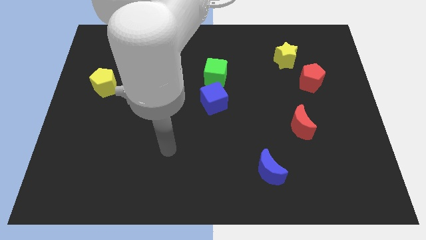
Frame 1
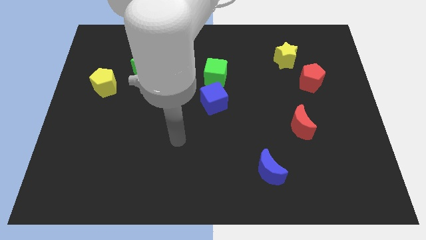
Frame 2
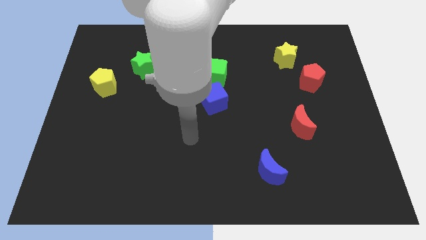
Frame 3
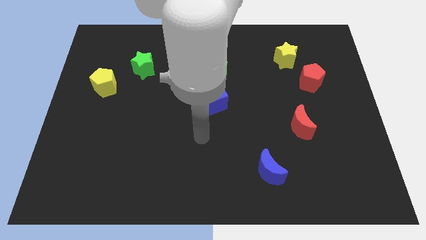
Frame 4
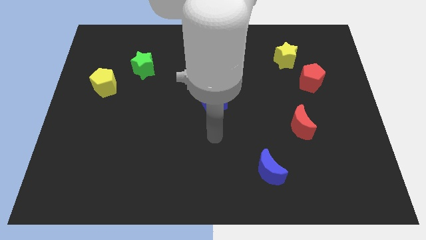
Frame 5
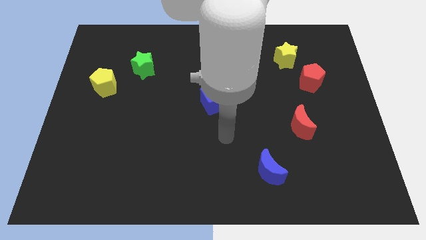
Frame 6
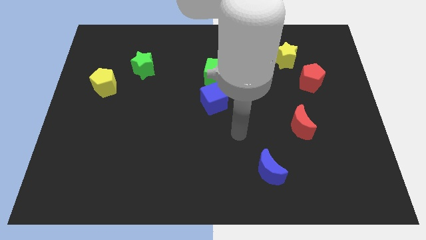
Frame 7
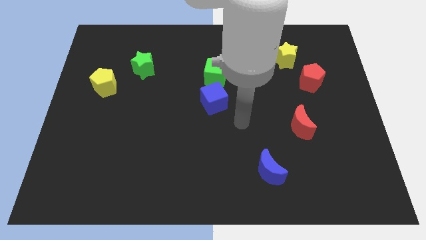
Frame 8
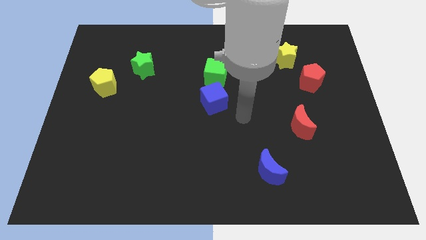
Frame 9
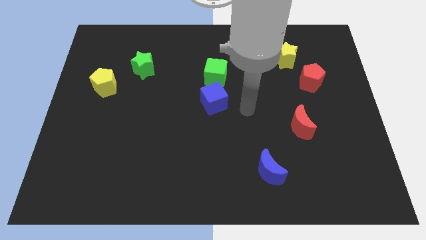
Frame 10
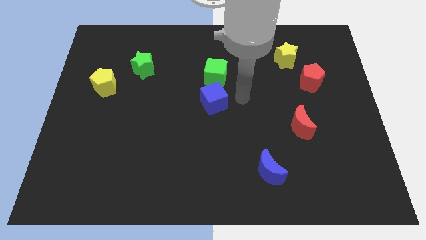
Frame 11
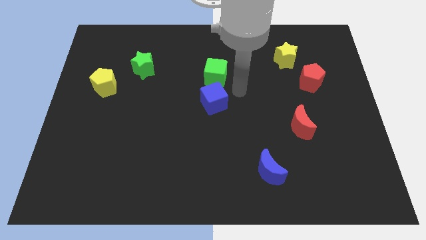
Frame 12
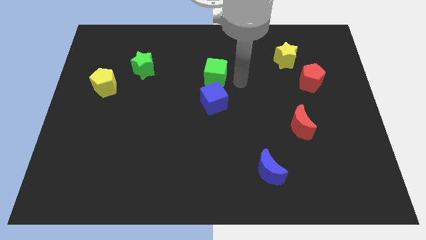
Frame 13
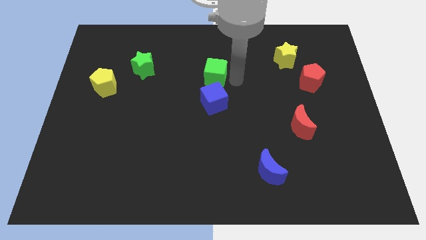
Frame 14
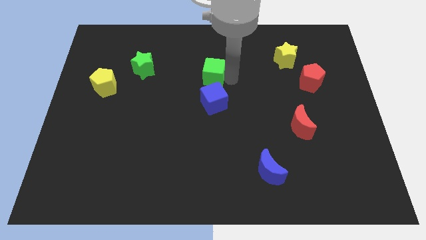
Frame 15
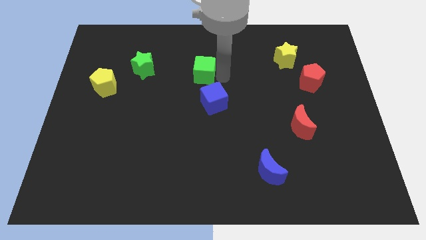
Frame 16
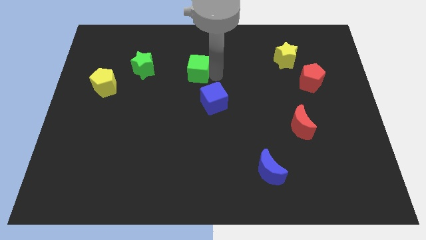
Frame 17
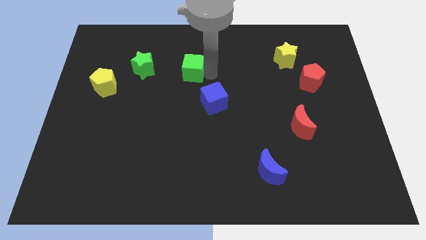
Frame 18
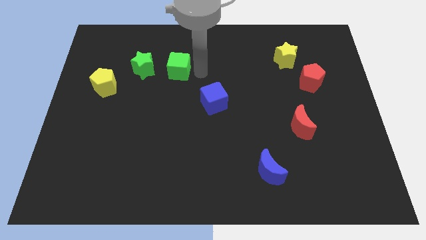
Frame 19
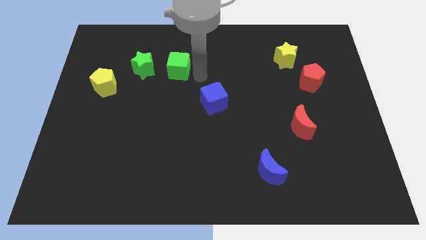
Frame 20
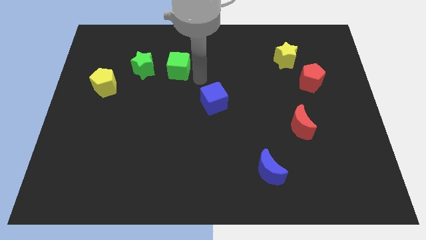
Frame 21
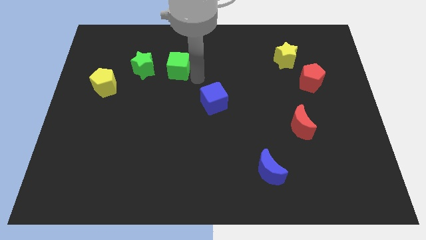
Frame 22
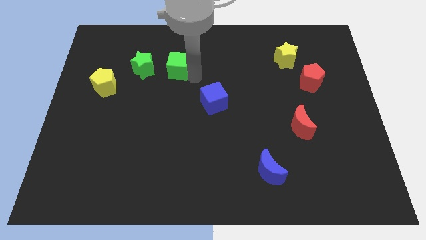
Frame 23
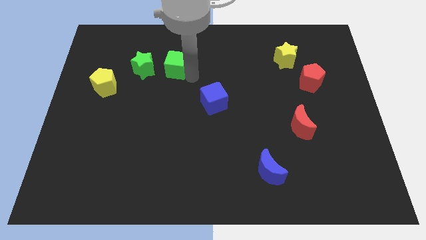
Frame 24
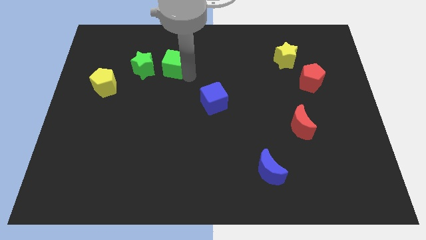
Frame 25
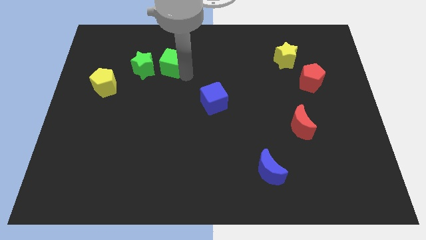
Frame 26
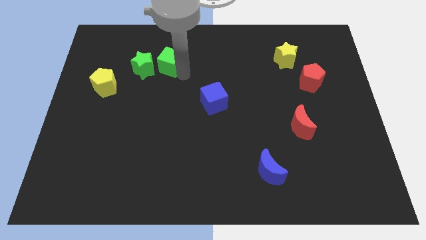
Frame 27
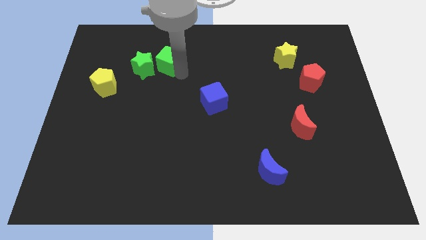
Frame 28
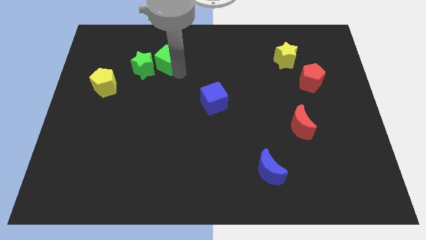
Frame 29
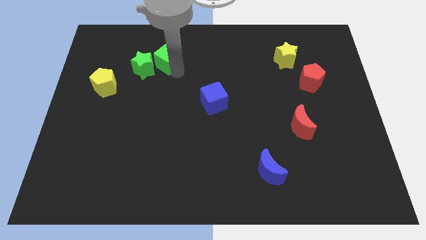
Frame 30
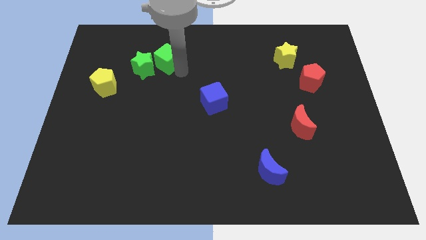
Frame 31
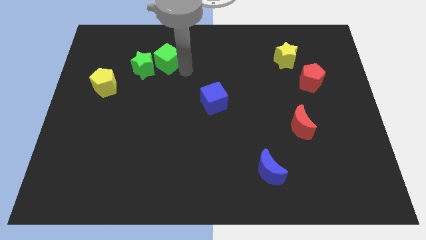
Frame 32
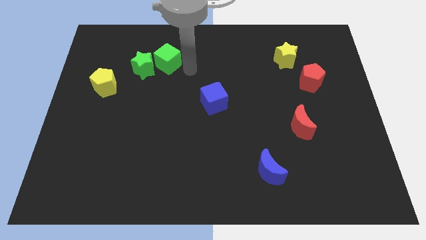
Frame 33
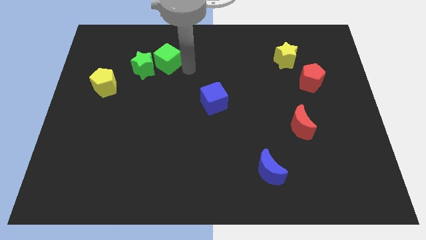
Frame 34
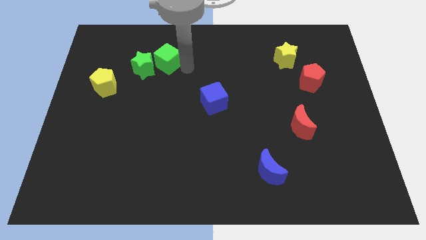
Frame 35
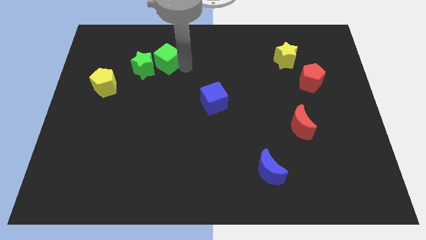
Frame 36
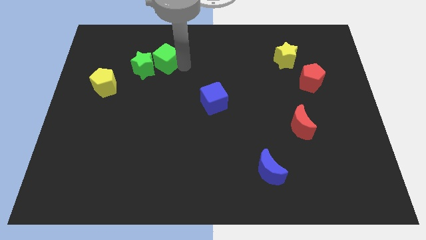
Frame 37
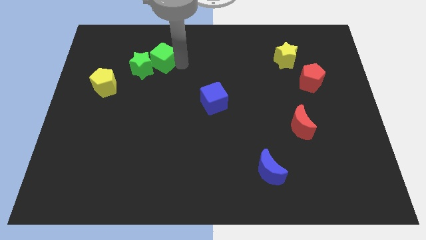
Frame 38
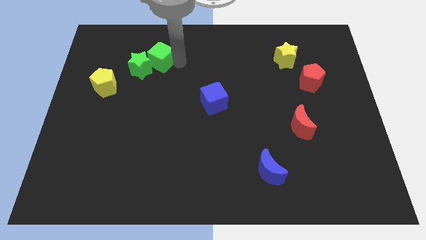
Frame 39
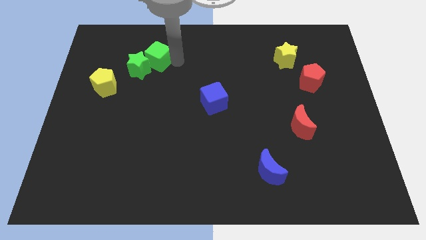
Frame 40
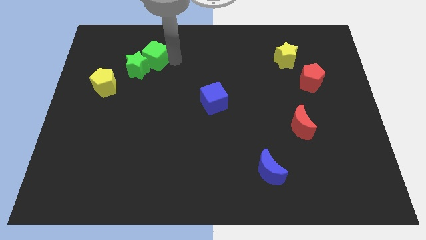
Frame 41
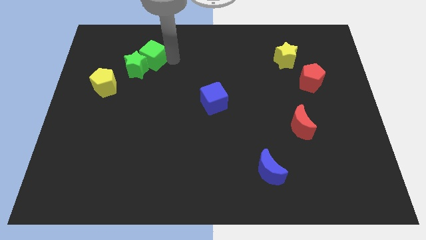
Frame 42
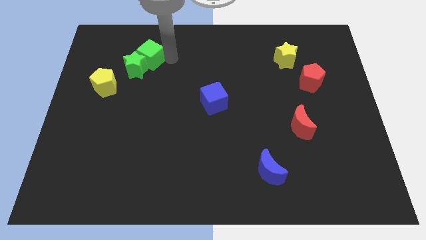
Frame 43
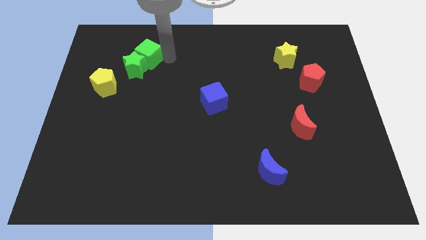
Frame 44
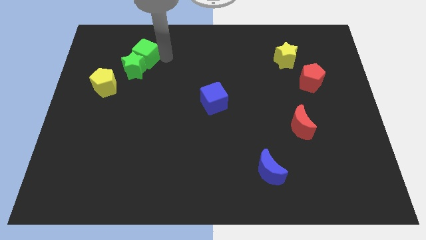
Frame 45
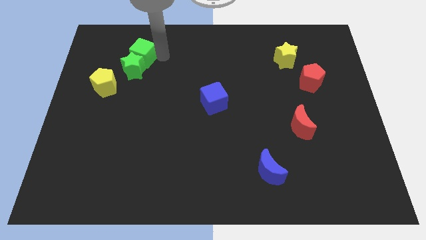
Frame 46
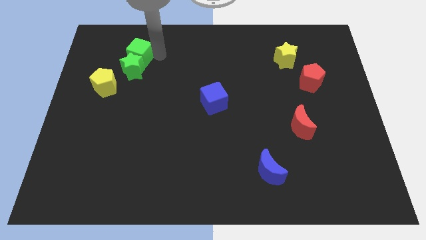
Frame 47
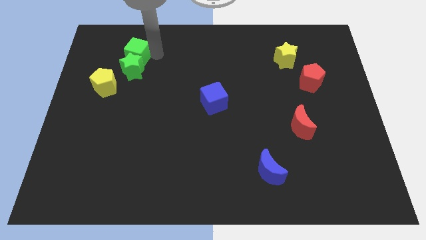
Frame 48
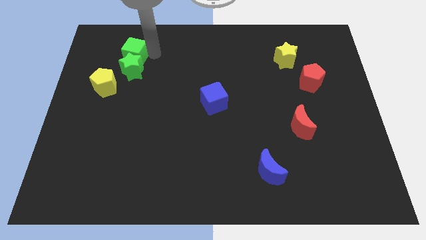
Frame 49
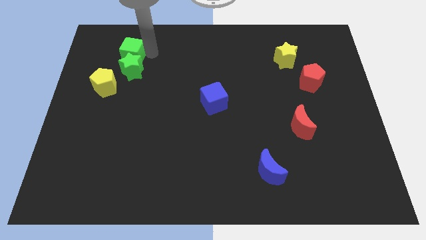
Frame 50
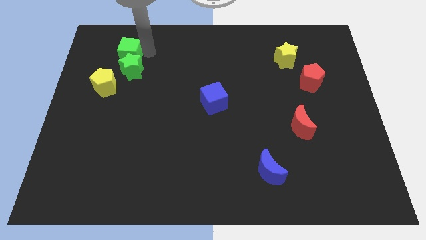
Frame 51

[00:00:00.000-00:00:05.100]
put the green cube to the top side of the yellow pentagon

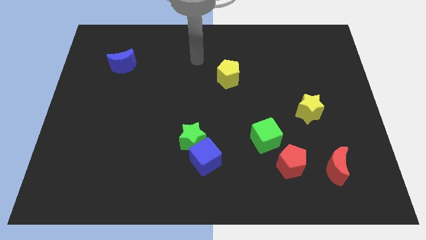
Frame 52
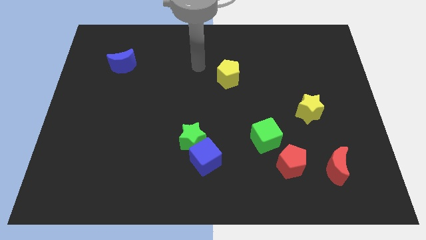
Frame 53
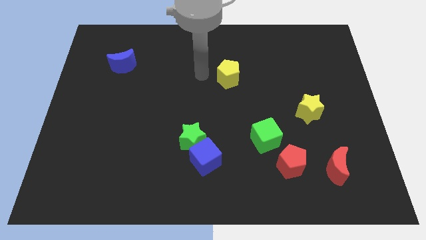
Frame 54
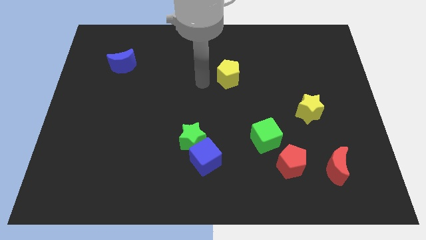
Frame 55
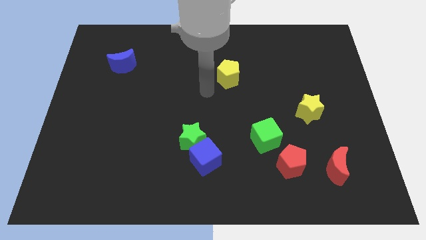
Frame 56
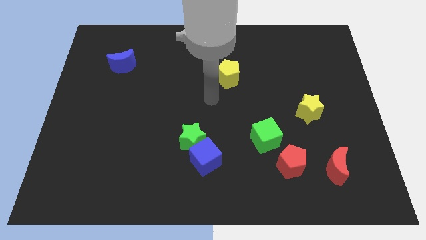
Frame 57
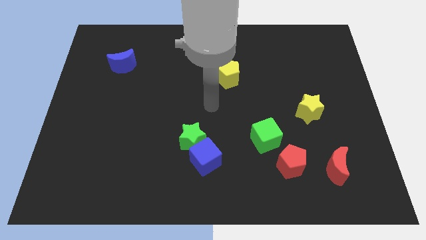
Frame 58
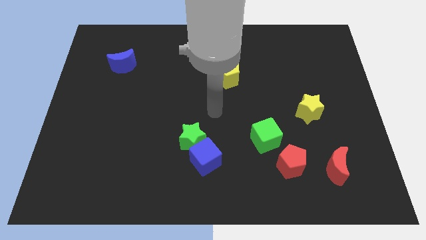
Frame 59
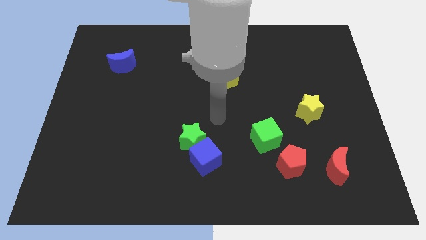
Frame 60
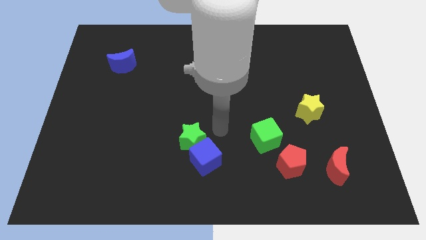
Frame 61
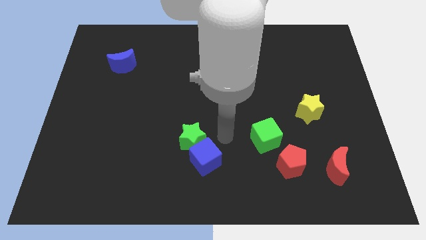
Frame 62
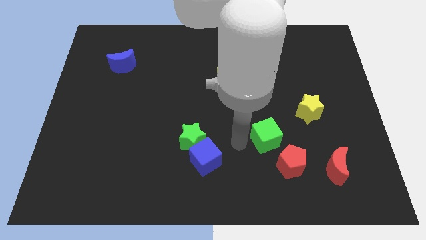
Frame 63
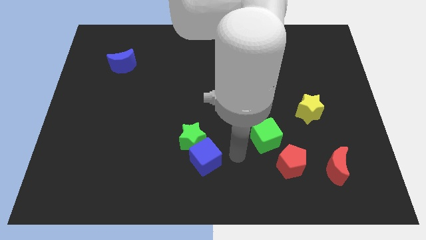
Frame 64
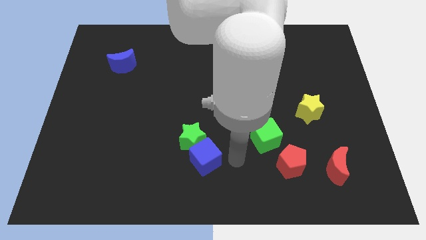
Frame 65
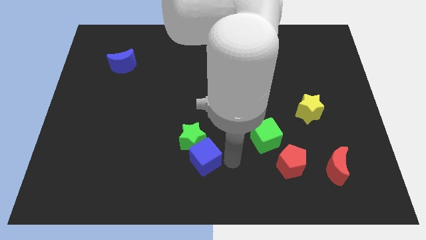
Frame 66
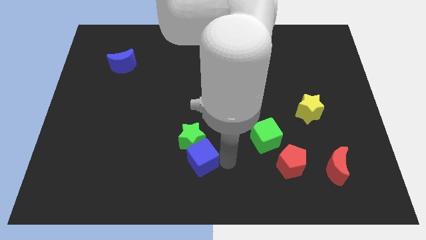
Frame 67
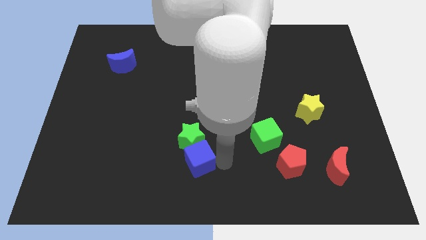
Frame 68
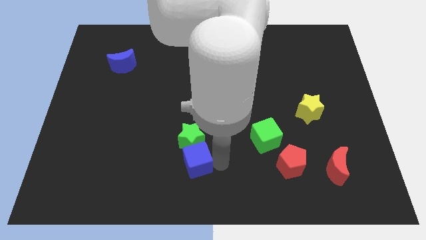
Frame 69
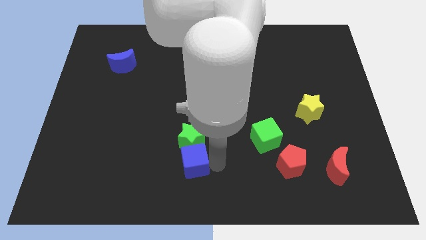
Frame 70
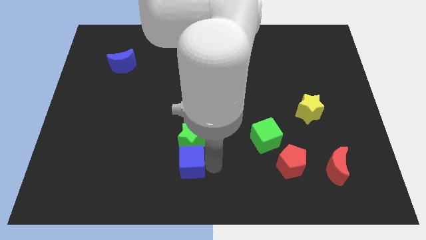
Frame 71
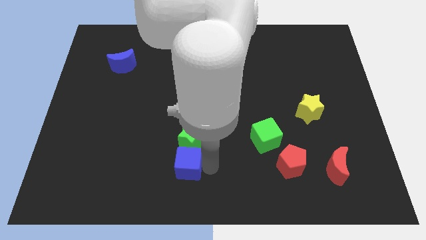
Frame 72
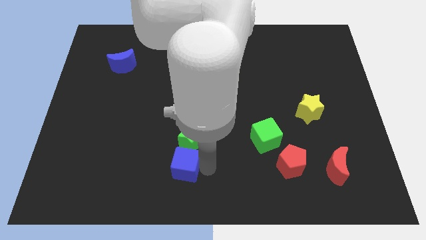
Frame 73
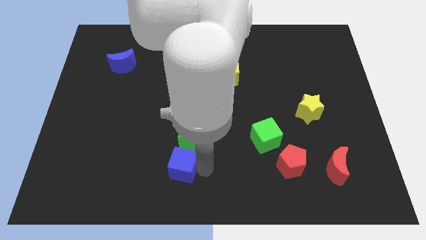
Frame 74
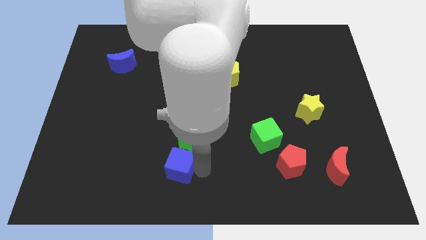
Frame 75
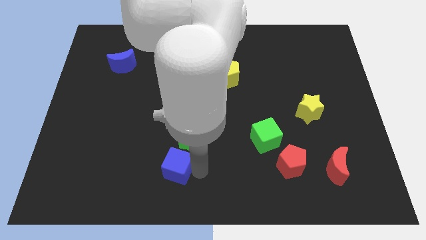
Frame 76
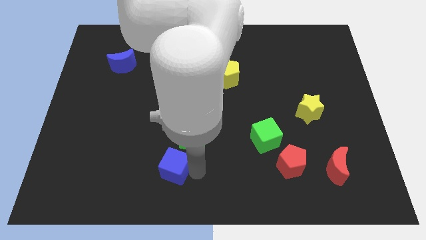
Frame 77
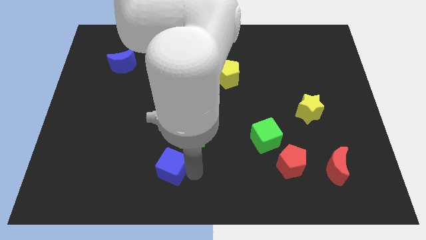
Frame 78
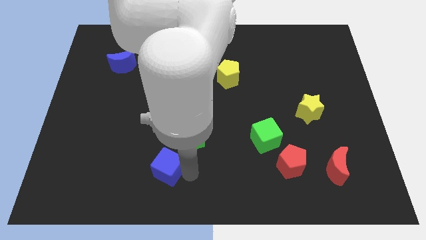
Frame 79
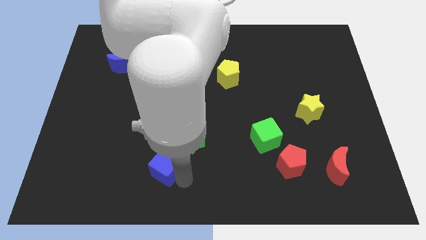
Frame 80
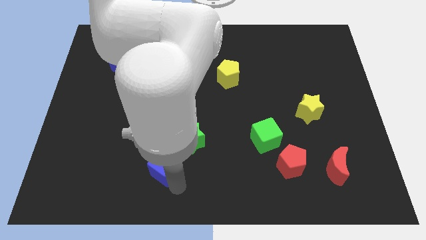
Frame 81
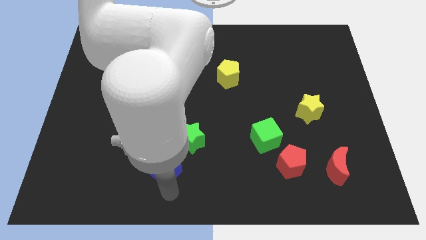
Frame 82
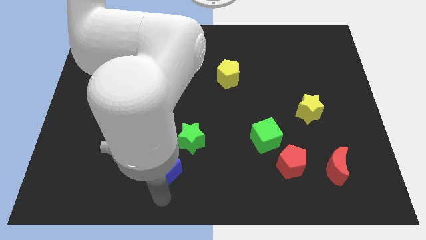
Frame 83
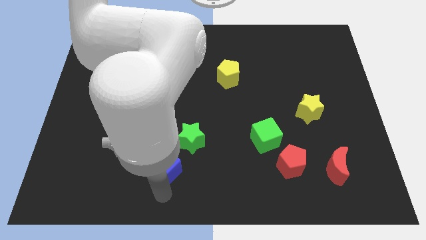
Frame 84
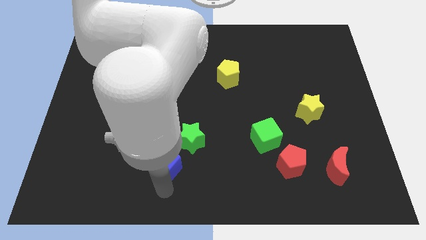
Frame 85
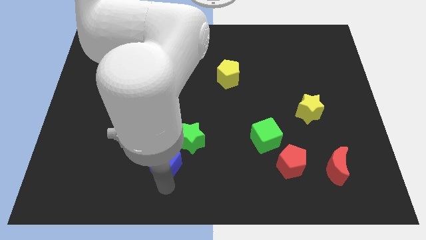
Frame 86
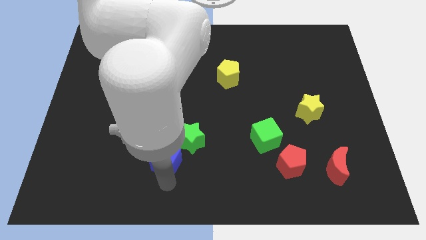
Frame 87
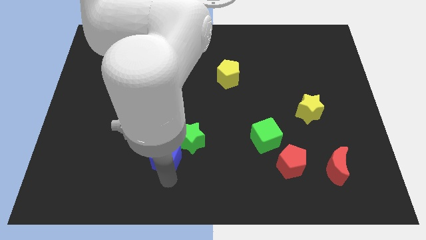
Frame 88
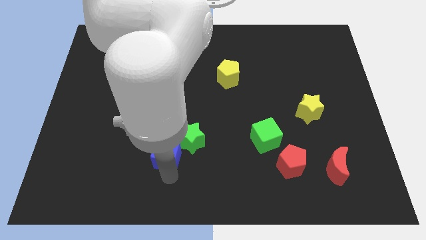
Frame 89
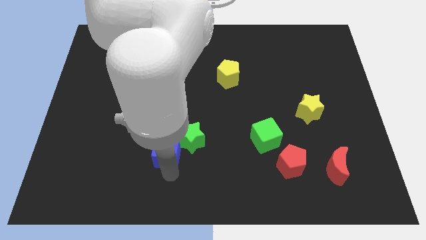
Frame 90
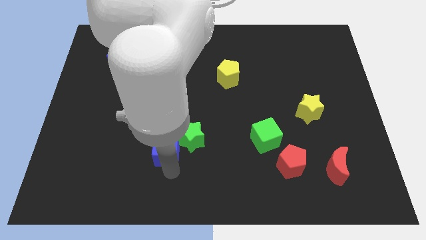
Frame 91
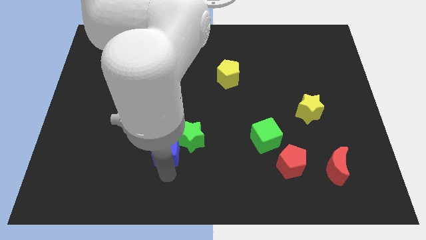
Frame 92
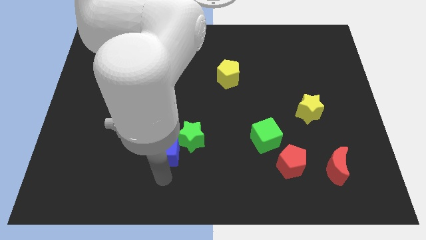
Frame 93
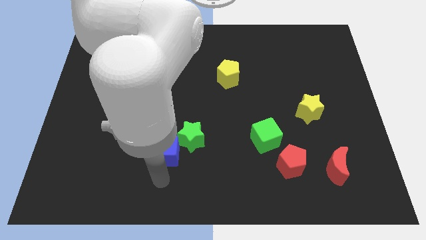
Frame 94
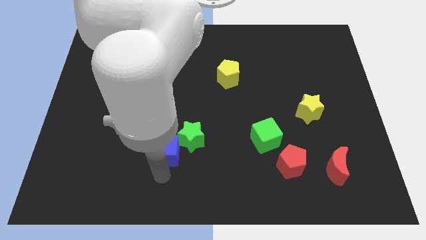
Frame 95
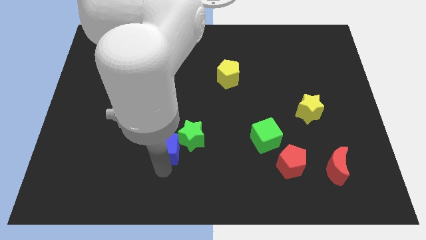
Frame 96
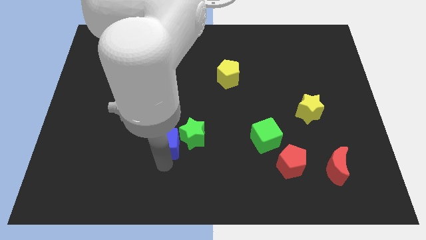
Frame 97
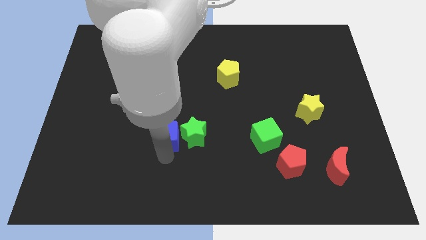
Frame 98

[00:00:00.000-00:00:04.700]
put the blue cube to the top left side of the green star
